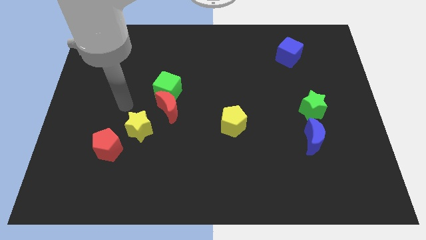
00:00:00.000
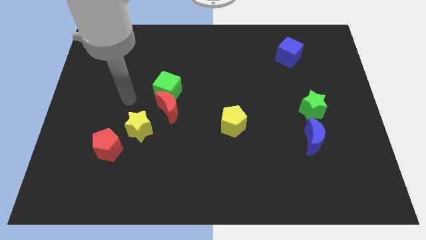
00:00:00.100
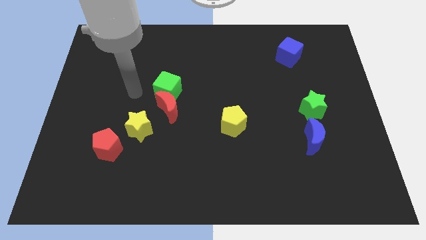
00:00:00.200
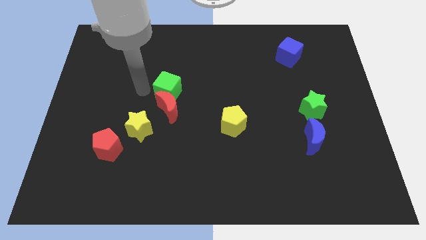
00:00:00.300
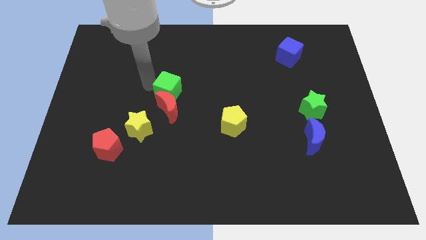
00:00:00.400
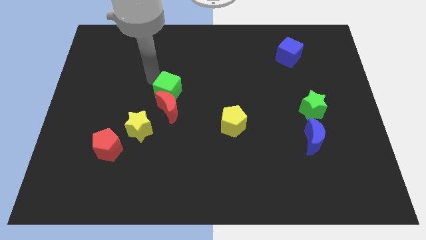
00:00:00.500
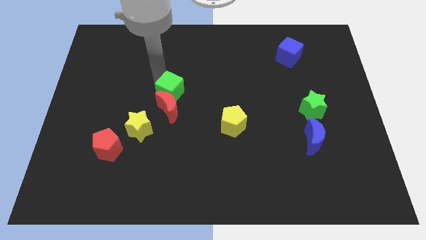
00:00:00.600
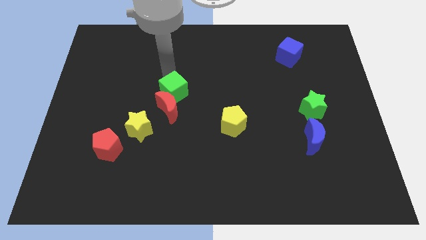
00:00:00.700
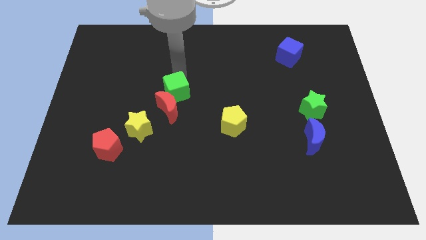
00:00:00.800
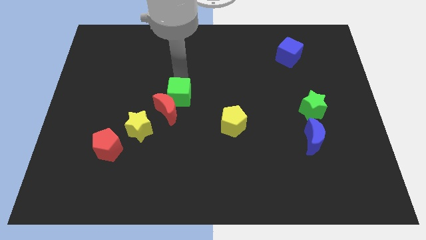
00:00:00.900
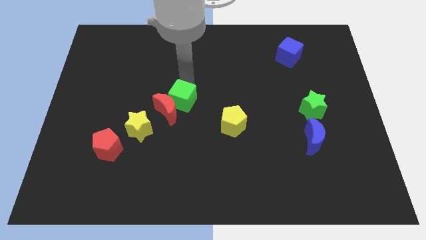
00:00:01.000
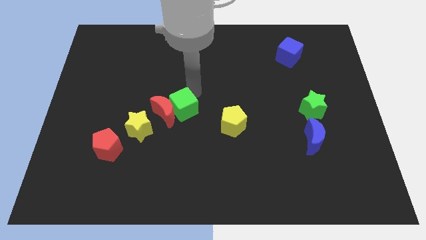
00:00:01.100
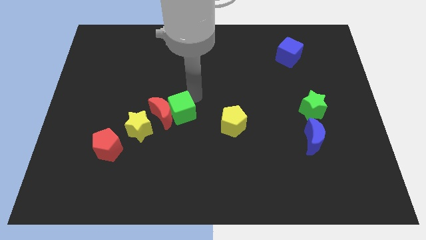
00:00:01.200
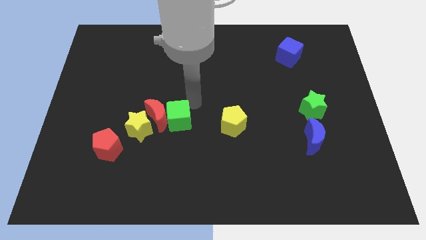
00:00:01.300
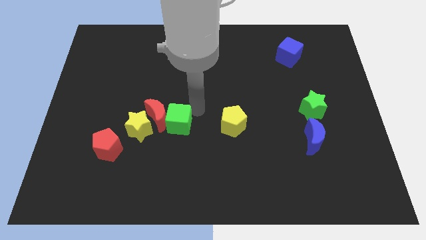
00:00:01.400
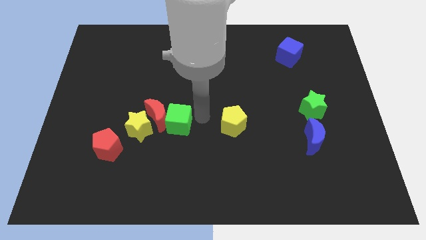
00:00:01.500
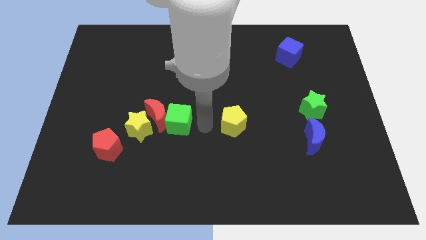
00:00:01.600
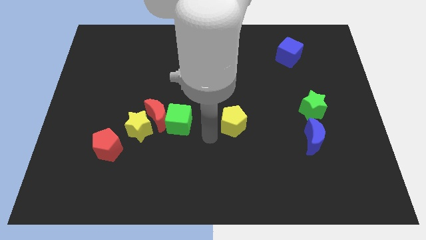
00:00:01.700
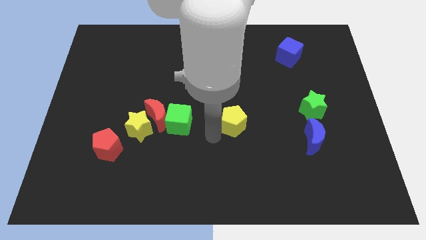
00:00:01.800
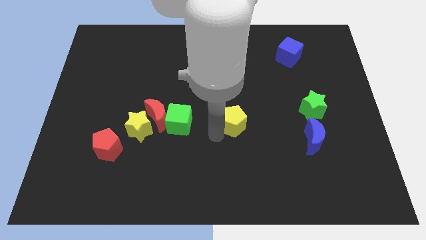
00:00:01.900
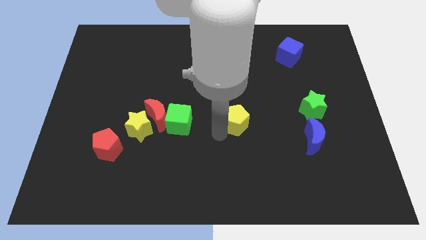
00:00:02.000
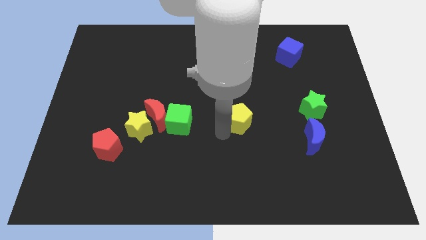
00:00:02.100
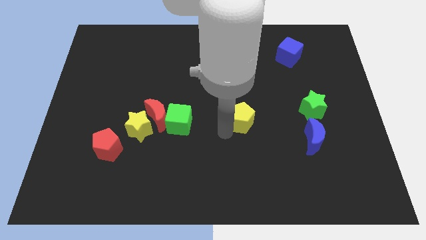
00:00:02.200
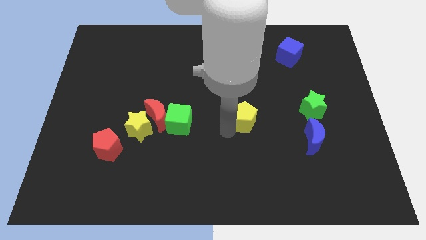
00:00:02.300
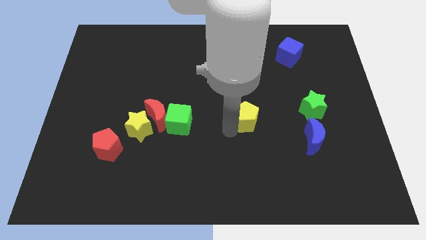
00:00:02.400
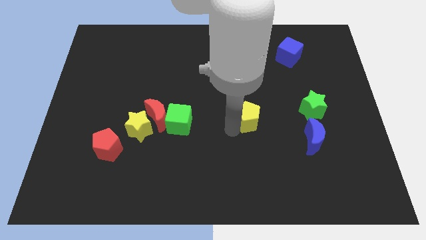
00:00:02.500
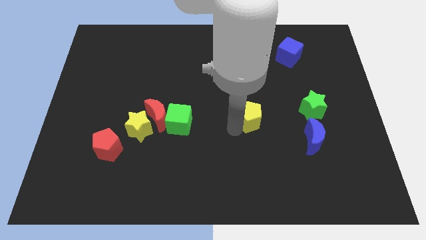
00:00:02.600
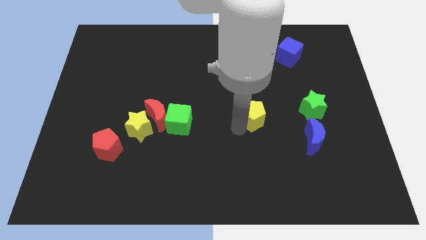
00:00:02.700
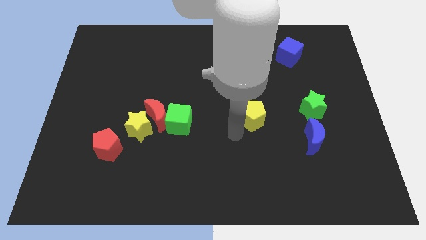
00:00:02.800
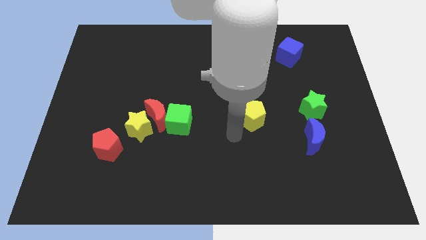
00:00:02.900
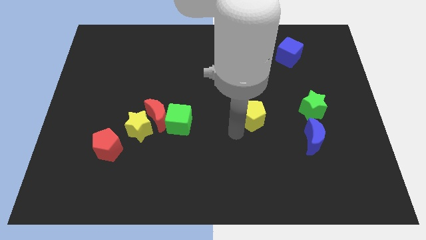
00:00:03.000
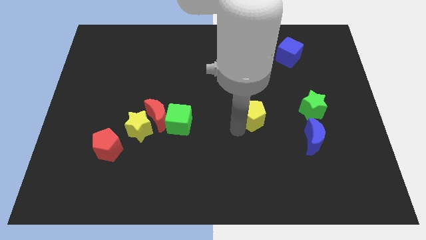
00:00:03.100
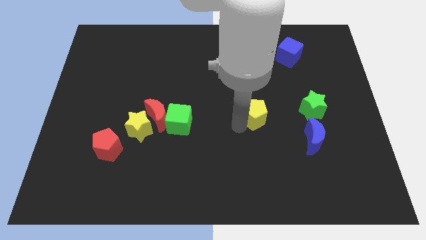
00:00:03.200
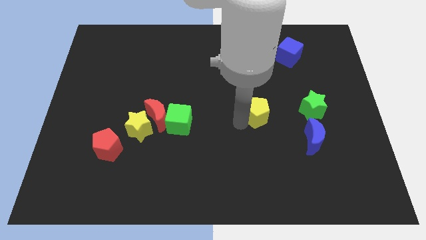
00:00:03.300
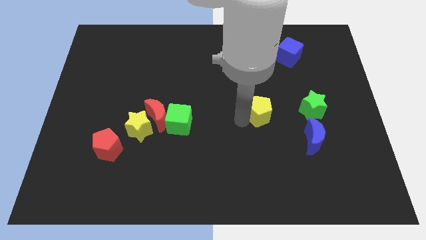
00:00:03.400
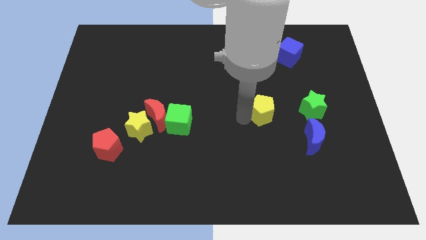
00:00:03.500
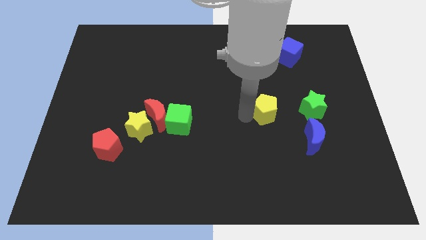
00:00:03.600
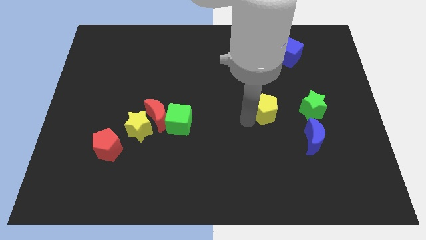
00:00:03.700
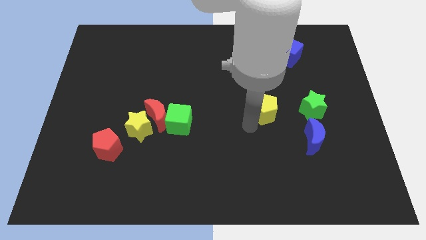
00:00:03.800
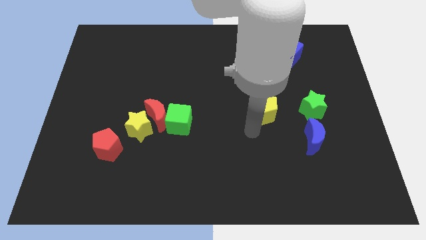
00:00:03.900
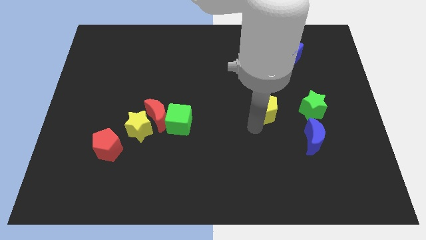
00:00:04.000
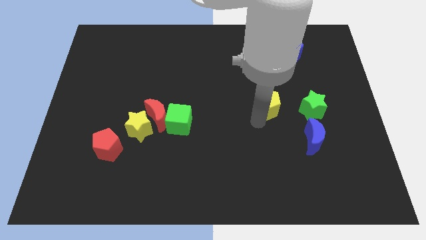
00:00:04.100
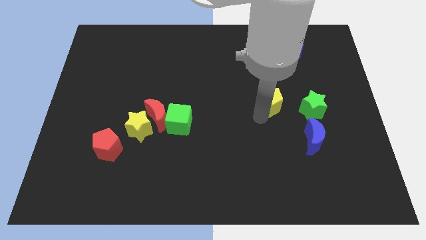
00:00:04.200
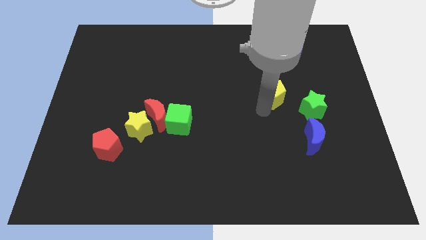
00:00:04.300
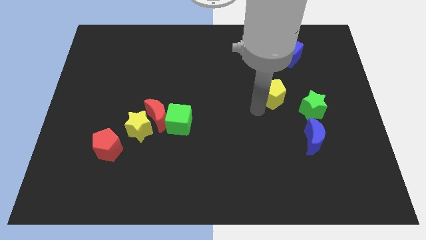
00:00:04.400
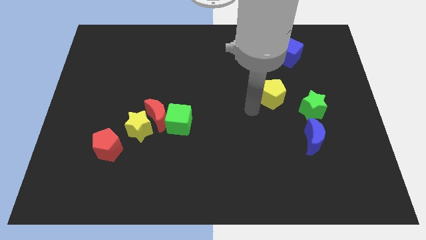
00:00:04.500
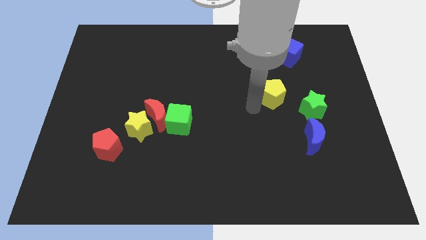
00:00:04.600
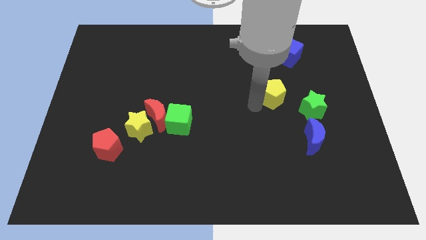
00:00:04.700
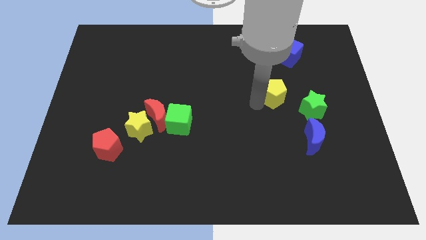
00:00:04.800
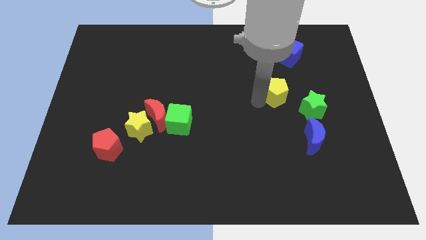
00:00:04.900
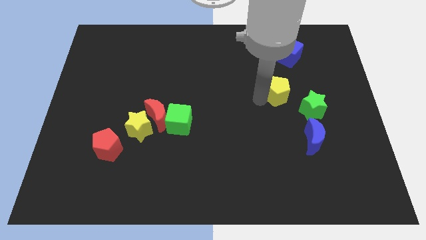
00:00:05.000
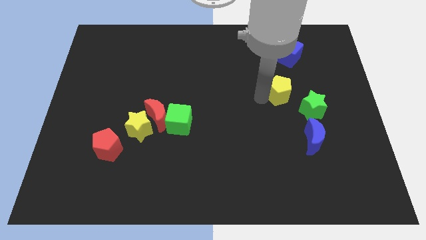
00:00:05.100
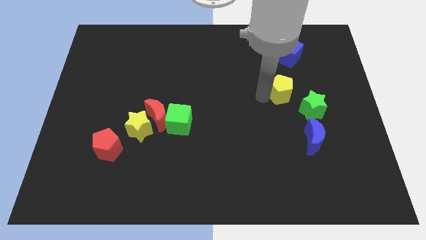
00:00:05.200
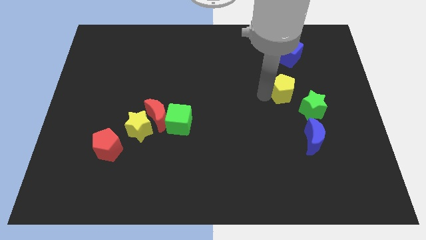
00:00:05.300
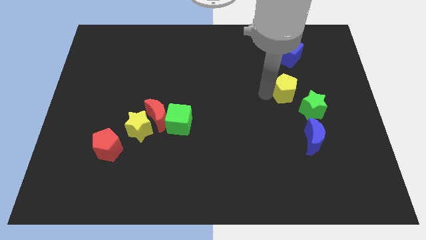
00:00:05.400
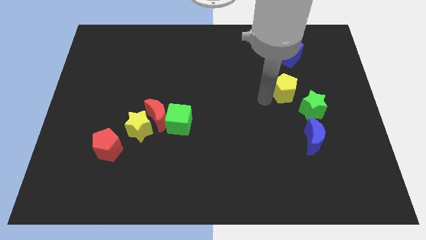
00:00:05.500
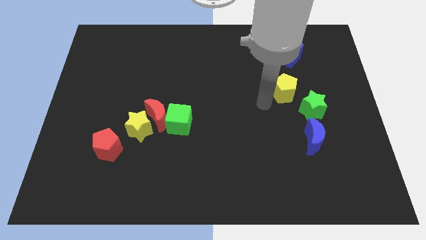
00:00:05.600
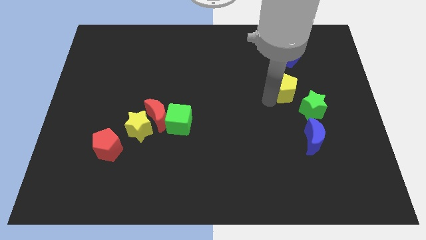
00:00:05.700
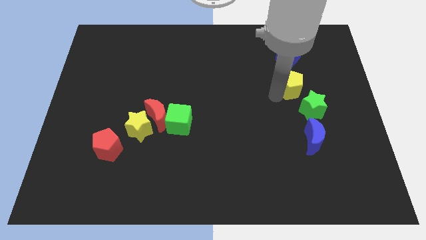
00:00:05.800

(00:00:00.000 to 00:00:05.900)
push the yellow pentagon above the green star
